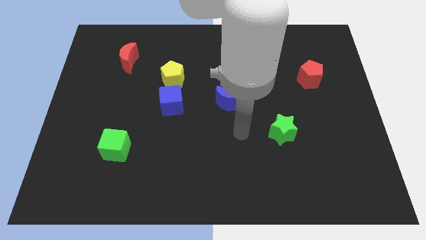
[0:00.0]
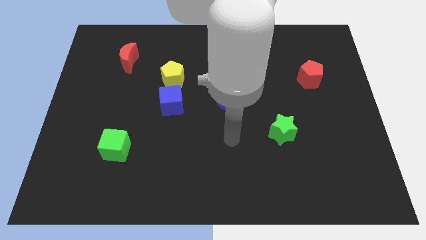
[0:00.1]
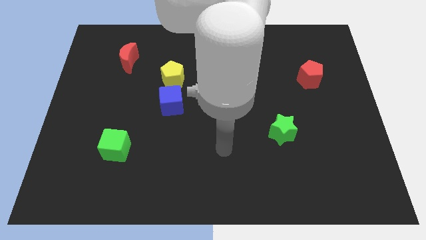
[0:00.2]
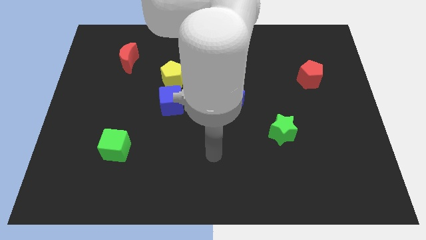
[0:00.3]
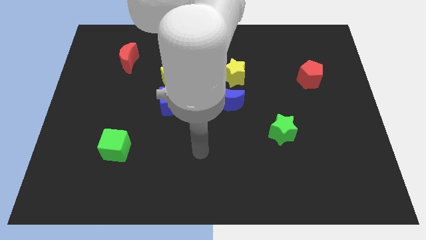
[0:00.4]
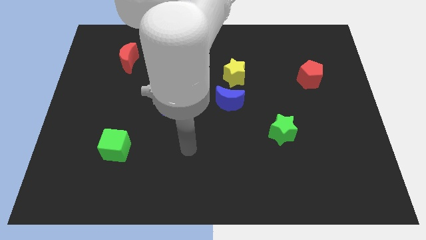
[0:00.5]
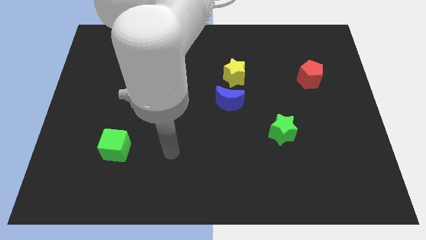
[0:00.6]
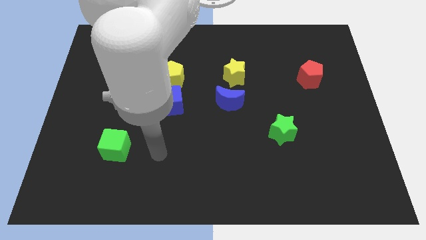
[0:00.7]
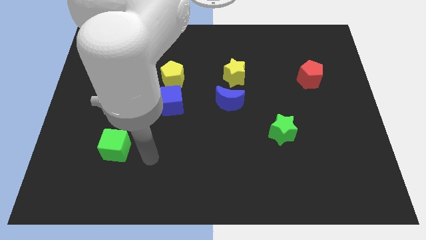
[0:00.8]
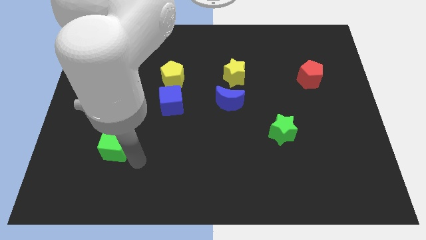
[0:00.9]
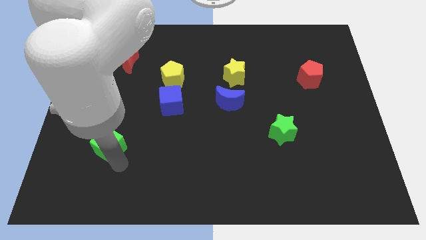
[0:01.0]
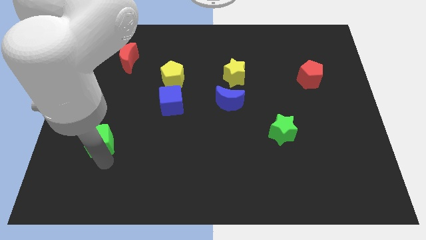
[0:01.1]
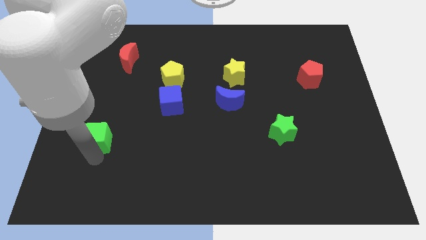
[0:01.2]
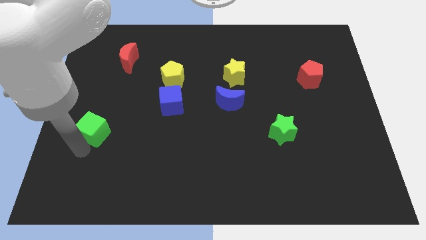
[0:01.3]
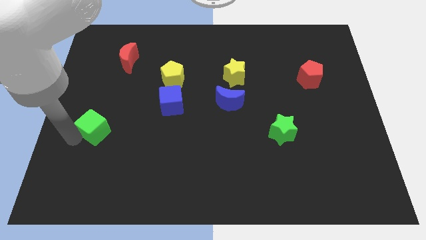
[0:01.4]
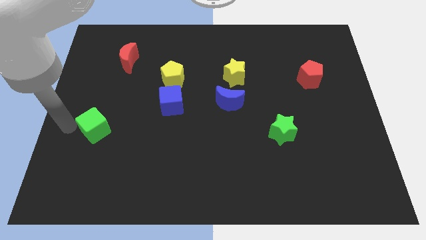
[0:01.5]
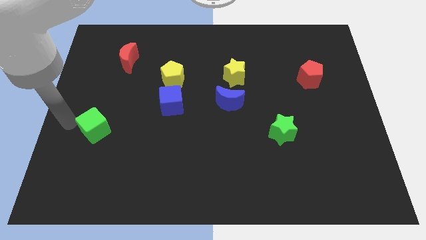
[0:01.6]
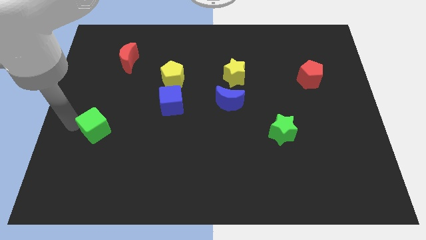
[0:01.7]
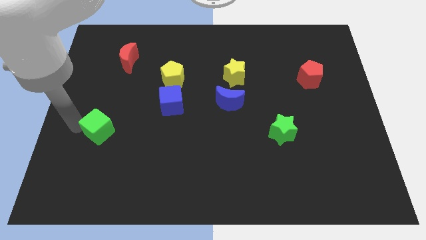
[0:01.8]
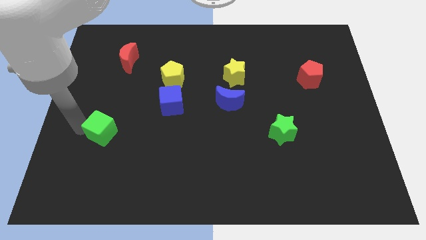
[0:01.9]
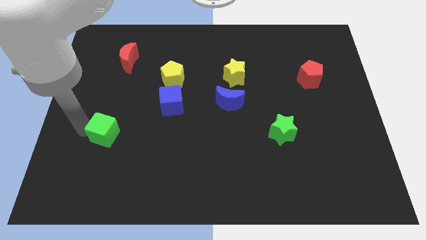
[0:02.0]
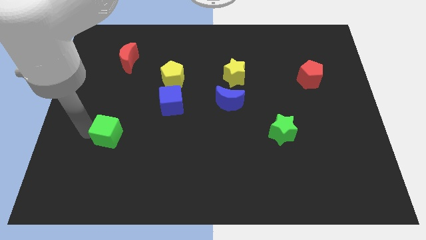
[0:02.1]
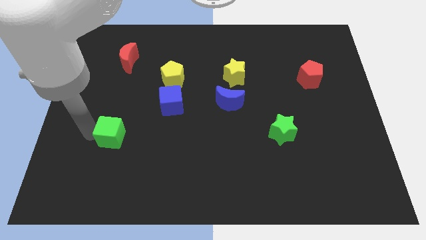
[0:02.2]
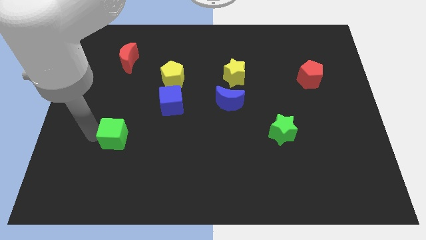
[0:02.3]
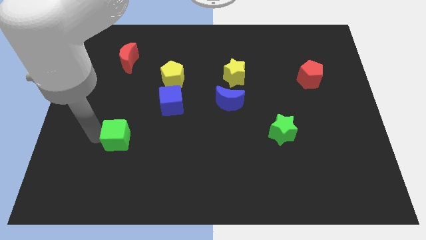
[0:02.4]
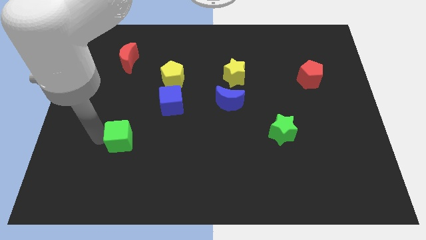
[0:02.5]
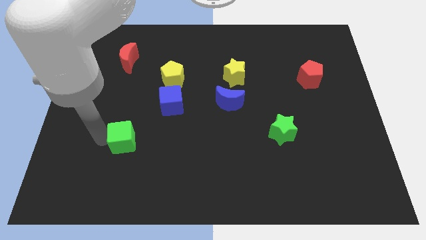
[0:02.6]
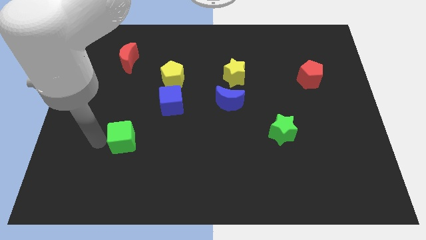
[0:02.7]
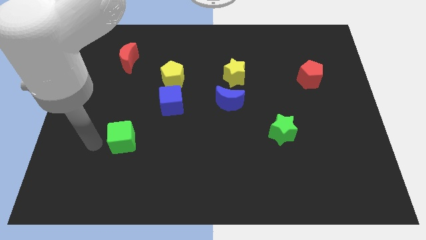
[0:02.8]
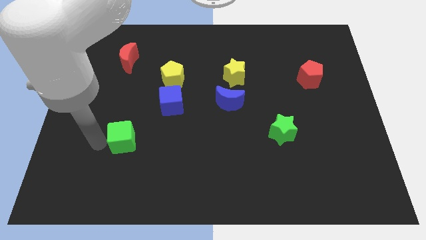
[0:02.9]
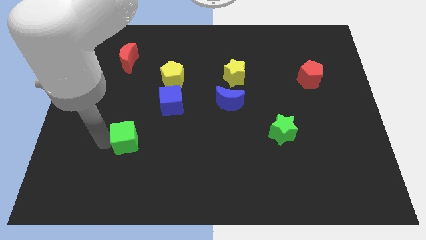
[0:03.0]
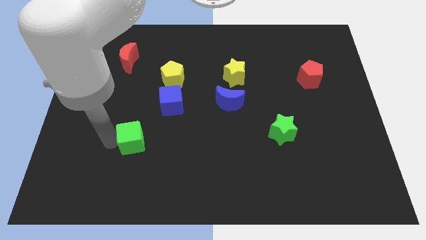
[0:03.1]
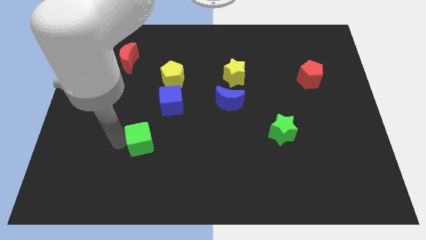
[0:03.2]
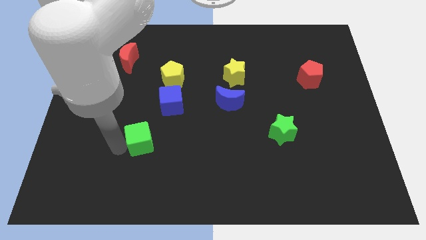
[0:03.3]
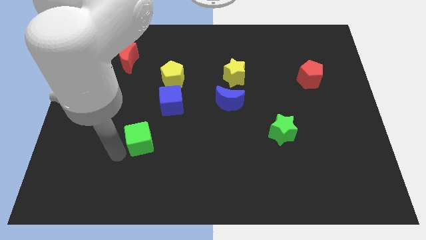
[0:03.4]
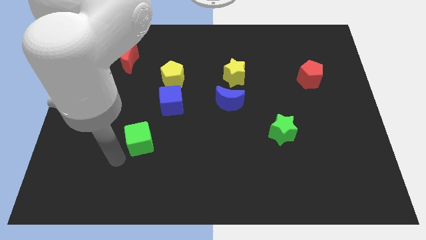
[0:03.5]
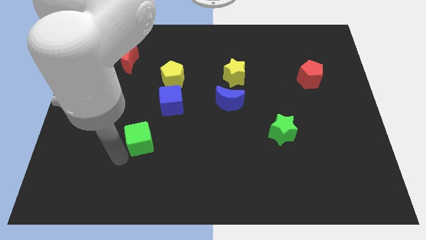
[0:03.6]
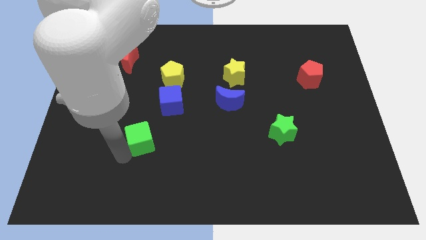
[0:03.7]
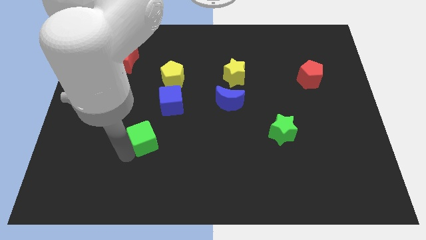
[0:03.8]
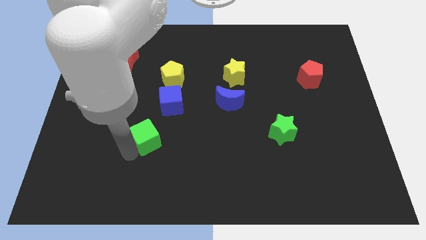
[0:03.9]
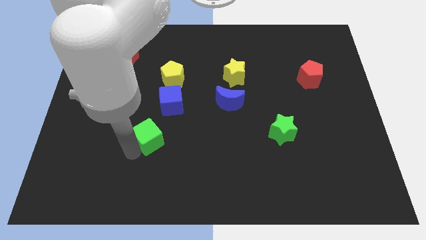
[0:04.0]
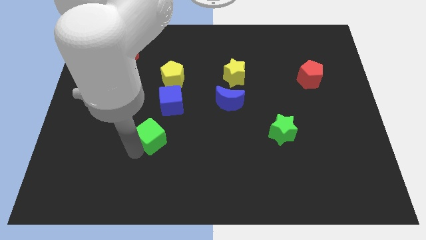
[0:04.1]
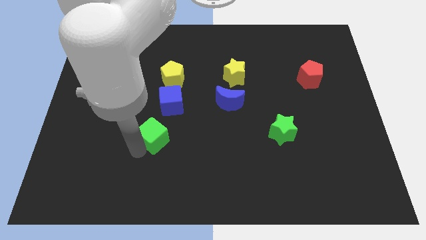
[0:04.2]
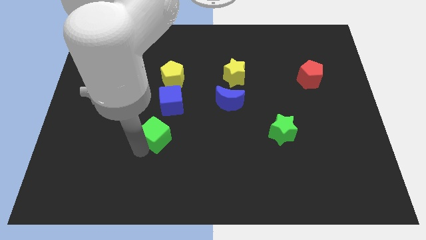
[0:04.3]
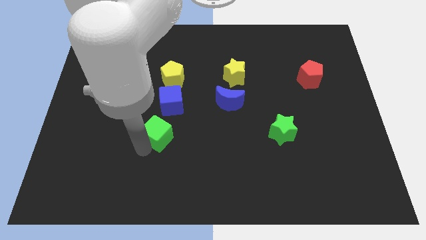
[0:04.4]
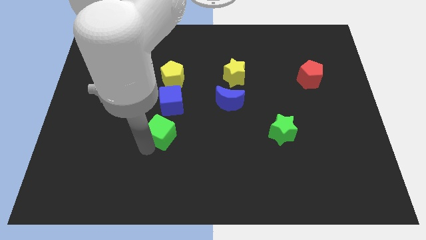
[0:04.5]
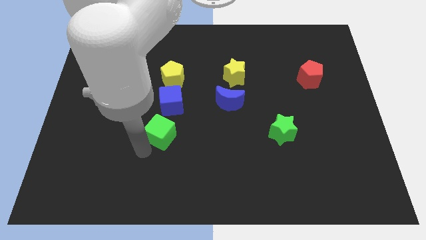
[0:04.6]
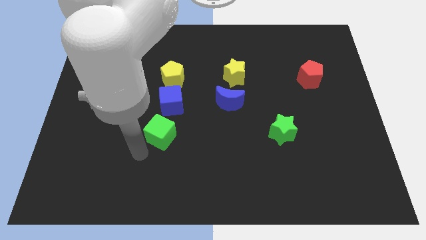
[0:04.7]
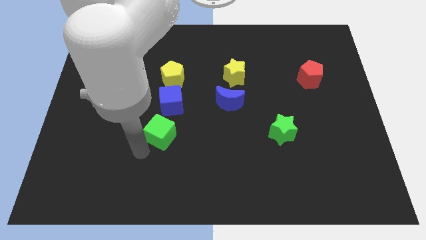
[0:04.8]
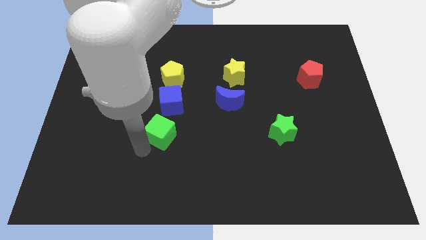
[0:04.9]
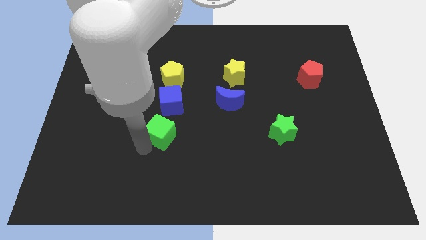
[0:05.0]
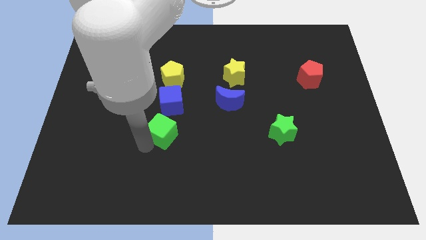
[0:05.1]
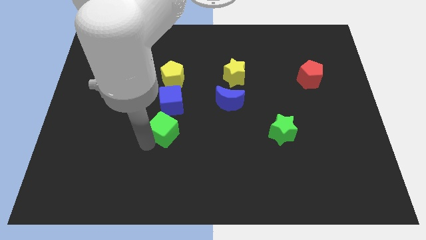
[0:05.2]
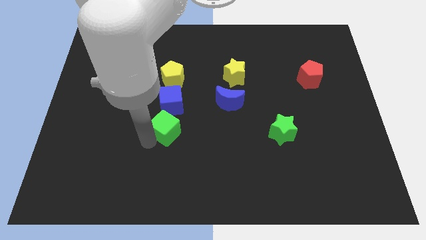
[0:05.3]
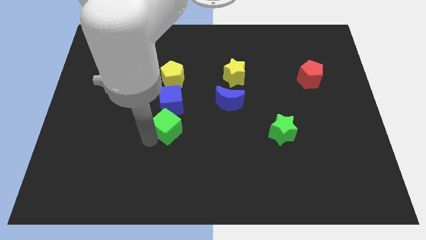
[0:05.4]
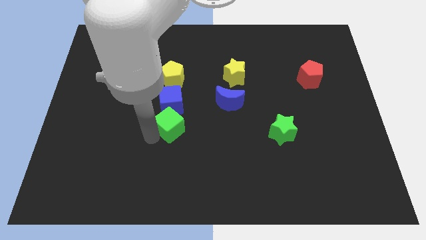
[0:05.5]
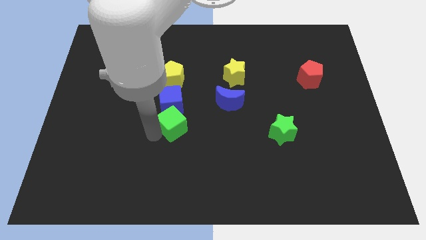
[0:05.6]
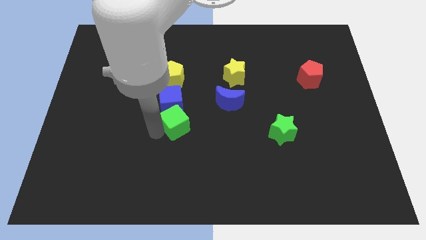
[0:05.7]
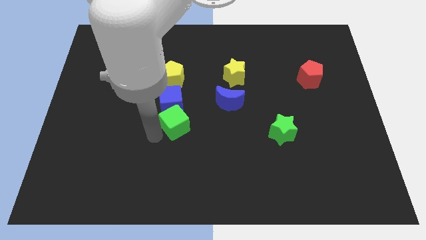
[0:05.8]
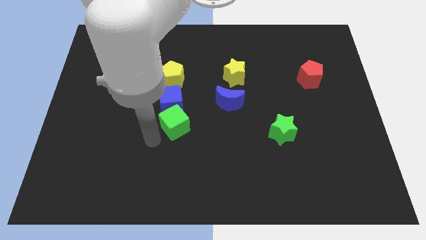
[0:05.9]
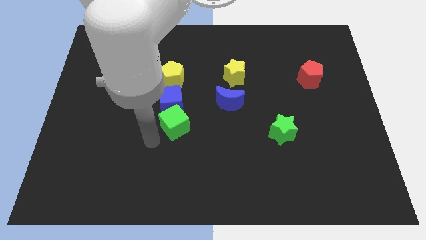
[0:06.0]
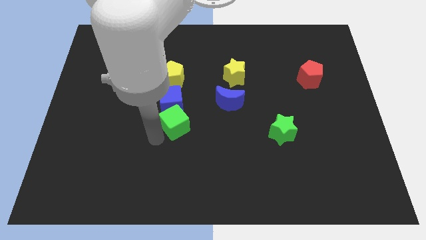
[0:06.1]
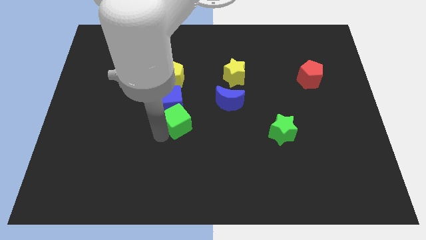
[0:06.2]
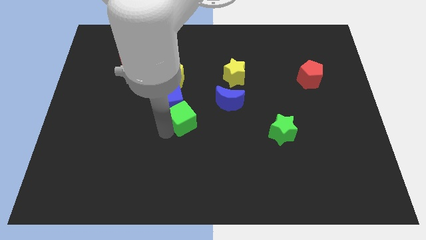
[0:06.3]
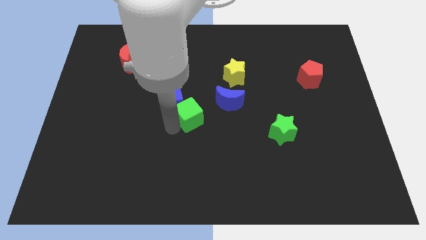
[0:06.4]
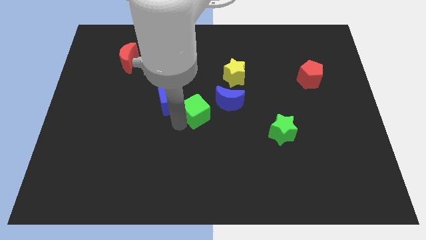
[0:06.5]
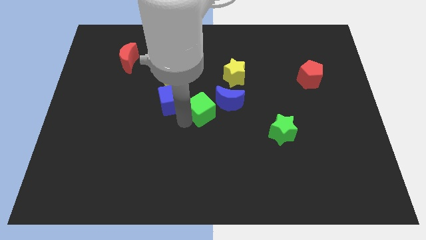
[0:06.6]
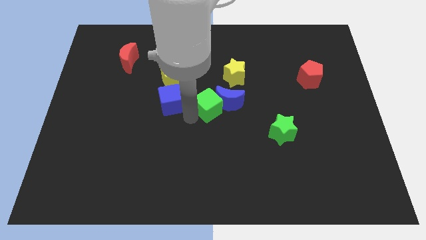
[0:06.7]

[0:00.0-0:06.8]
push the green cube close to the blue moon
